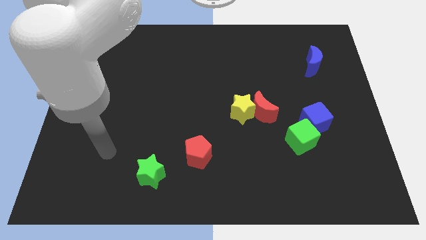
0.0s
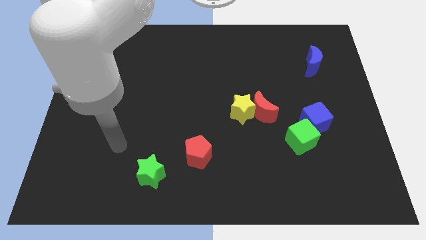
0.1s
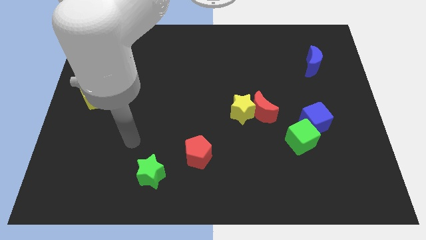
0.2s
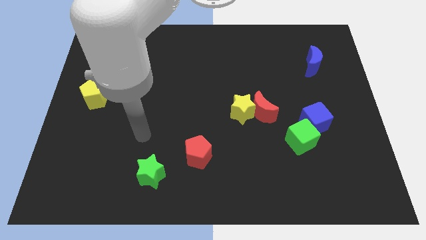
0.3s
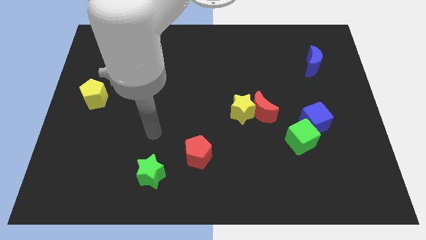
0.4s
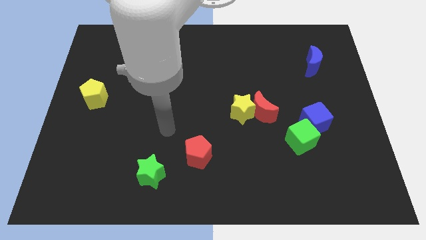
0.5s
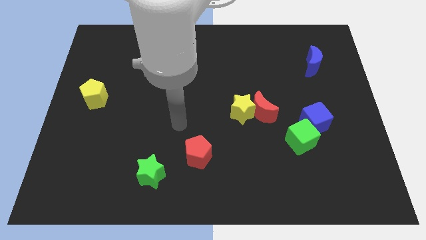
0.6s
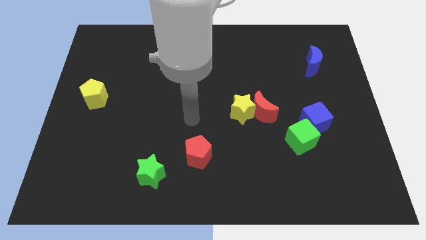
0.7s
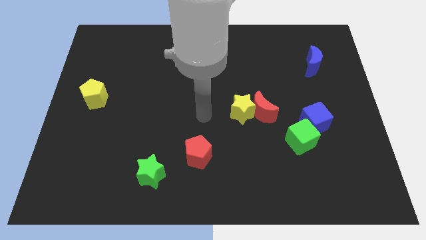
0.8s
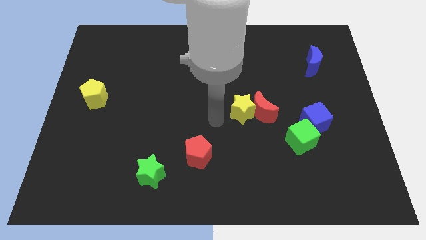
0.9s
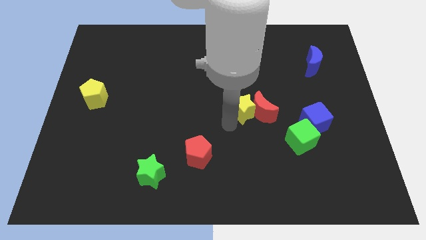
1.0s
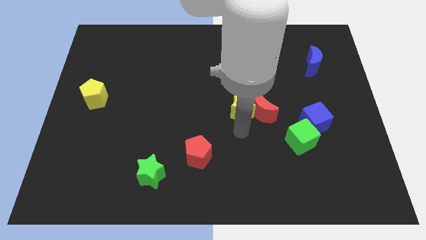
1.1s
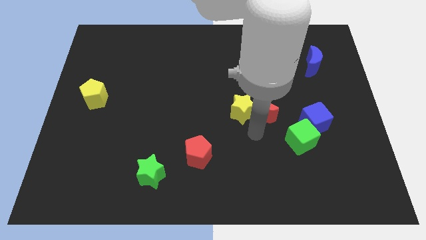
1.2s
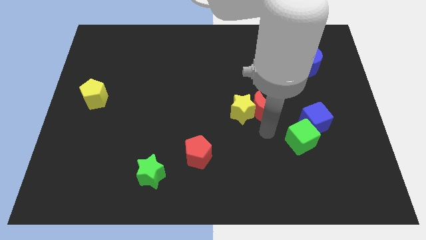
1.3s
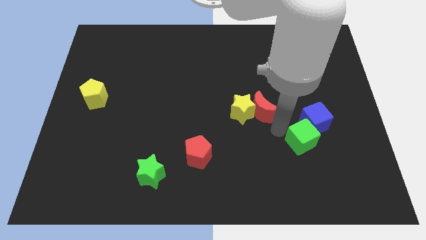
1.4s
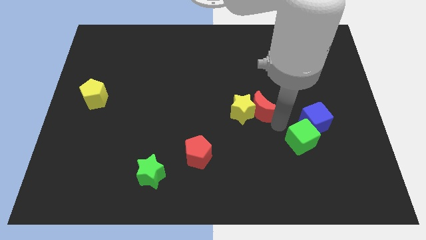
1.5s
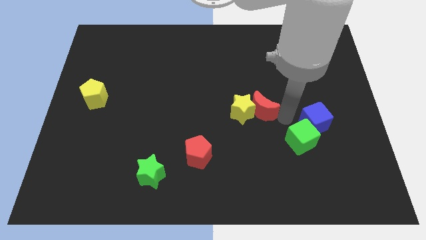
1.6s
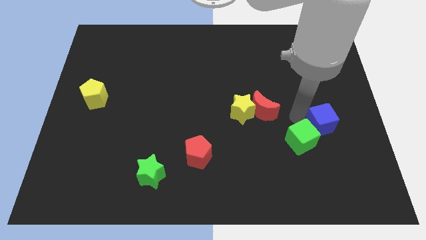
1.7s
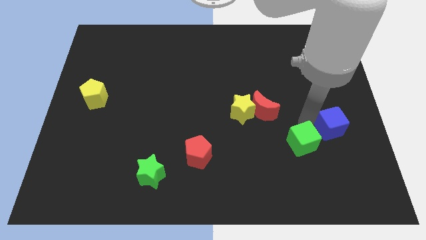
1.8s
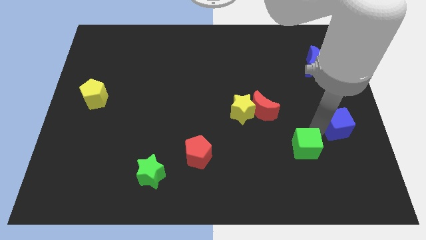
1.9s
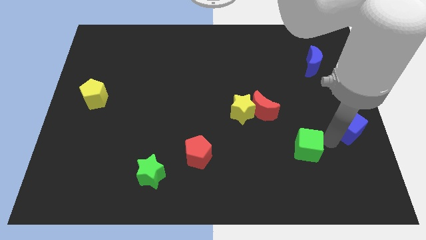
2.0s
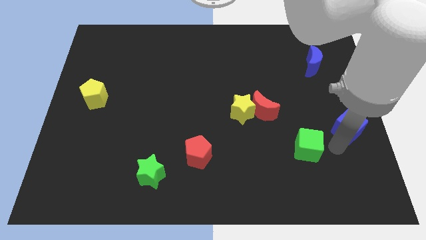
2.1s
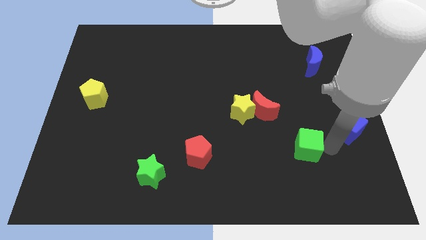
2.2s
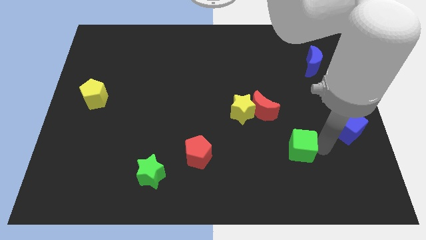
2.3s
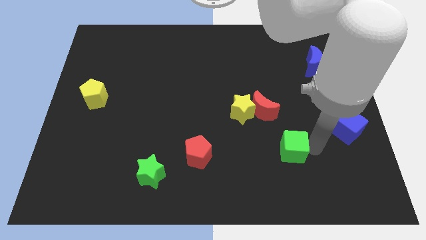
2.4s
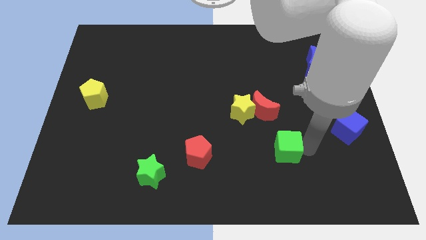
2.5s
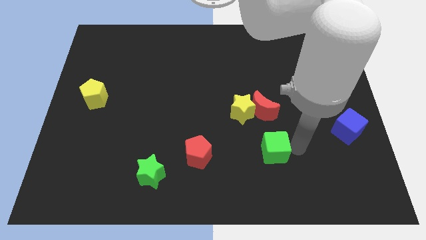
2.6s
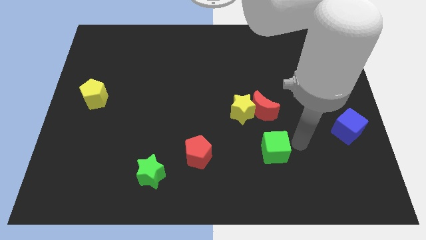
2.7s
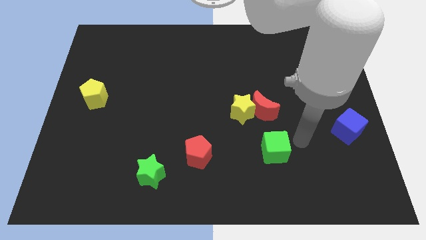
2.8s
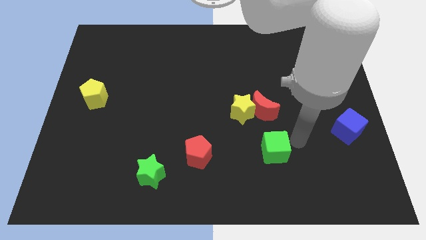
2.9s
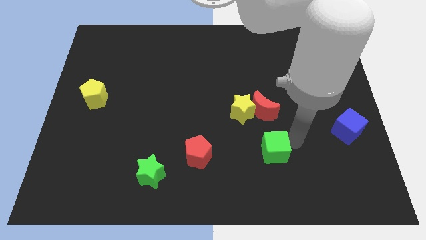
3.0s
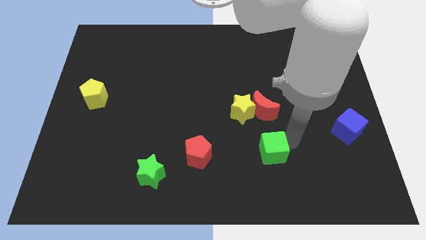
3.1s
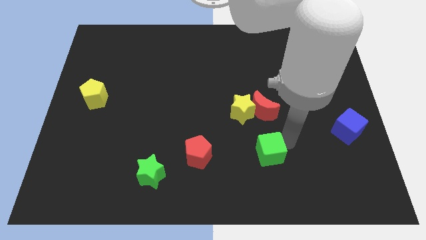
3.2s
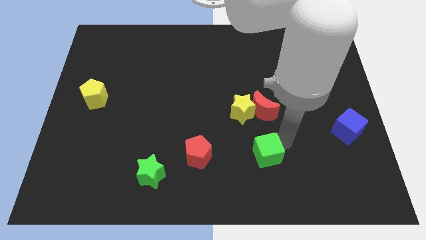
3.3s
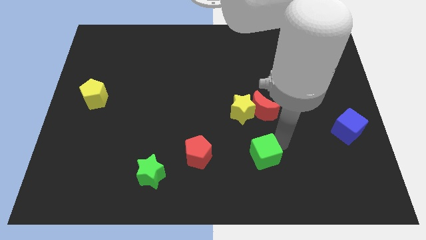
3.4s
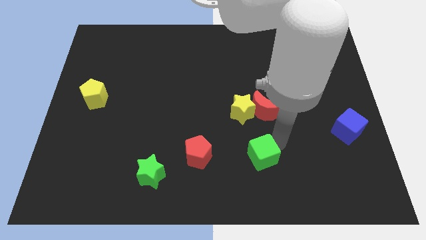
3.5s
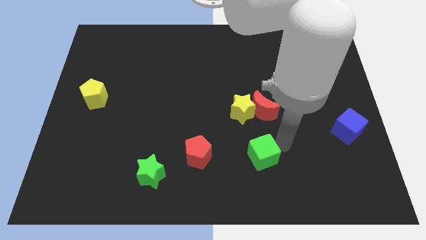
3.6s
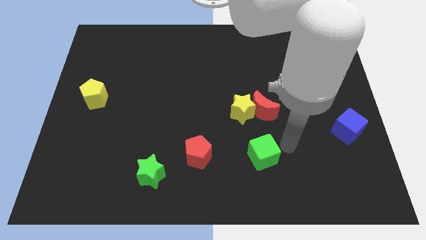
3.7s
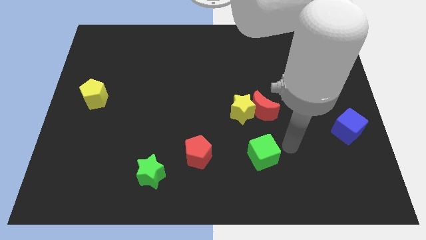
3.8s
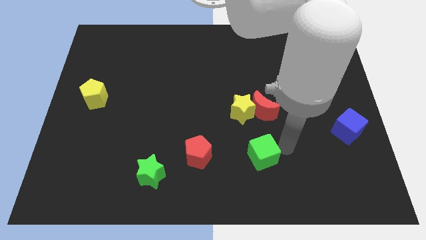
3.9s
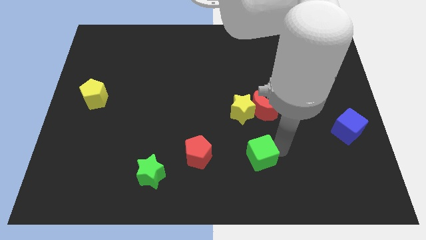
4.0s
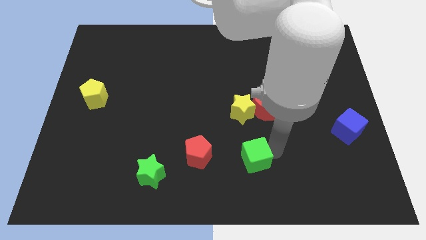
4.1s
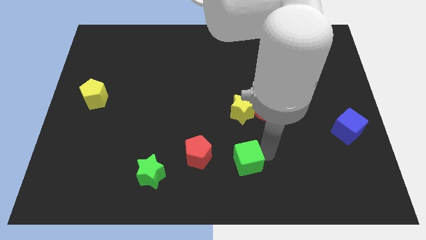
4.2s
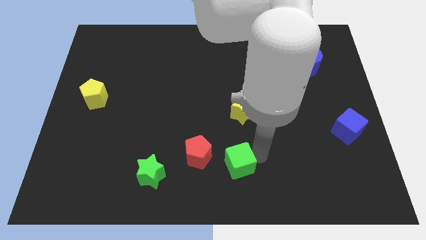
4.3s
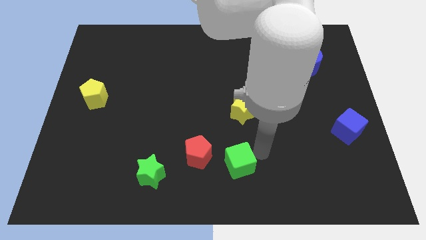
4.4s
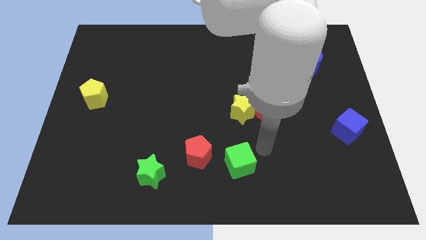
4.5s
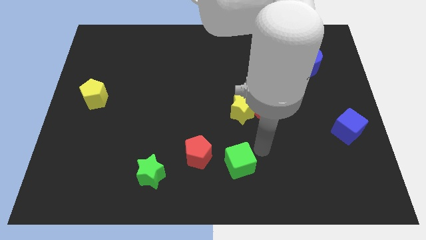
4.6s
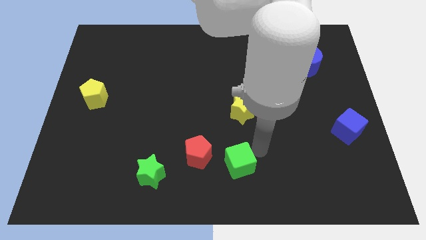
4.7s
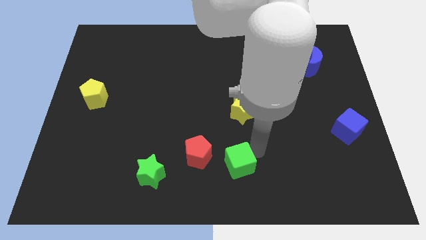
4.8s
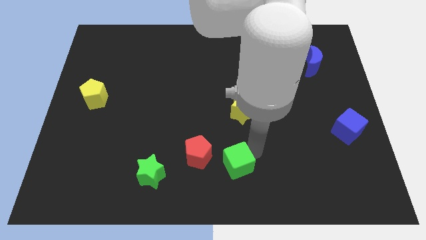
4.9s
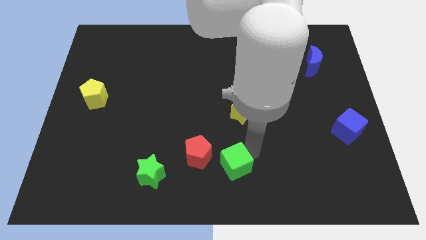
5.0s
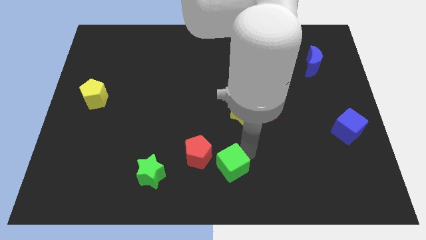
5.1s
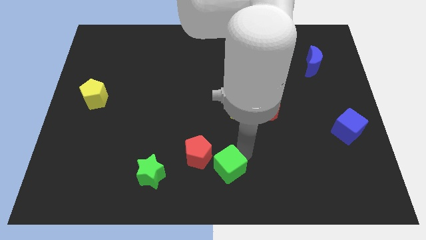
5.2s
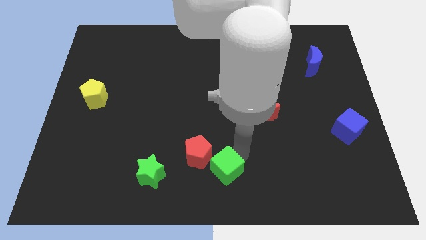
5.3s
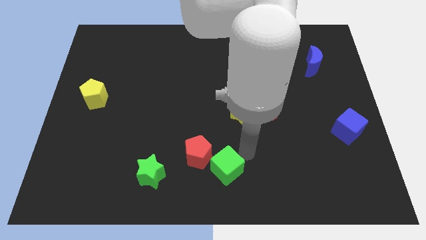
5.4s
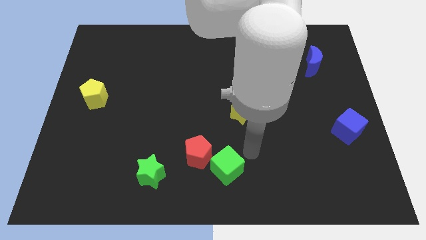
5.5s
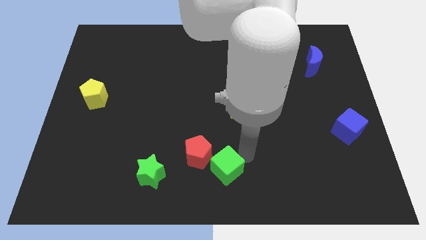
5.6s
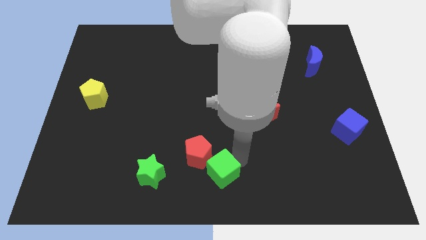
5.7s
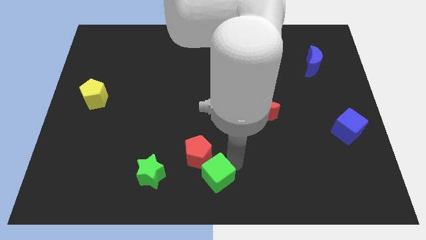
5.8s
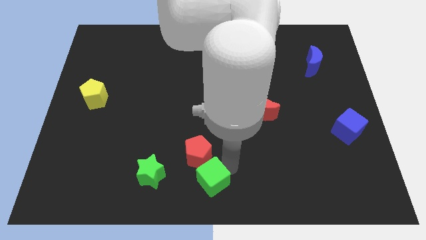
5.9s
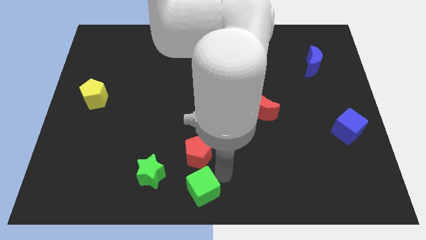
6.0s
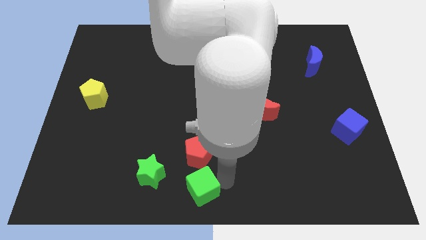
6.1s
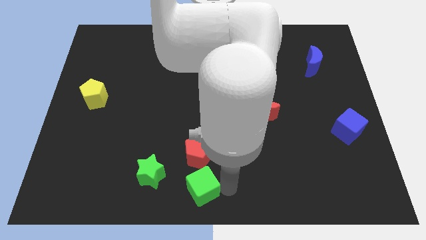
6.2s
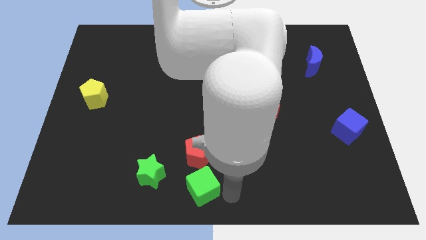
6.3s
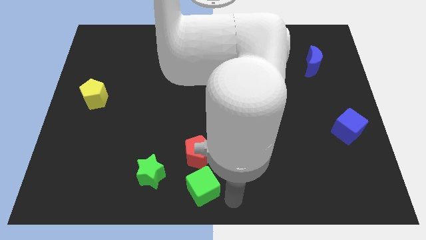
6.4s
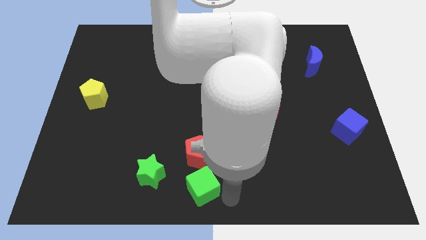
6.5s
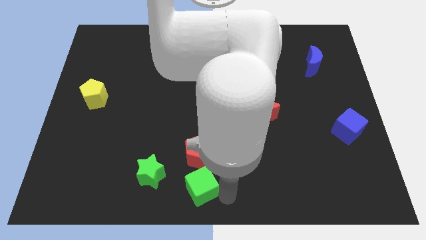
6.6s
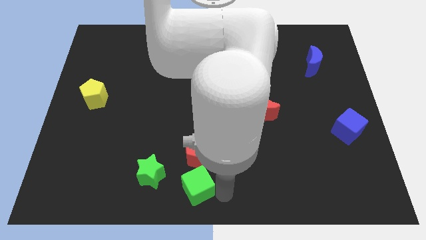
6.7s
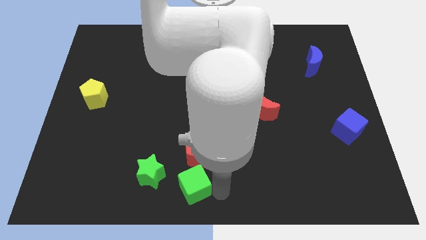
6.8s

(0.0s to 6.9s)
push the green cube to the bottom left side of the red pentagon
